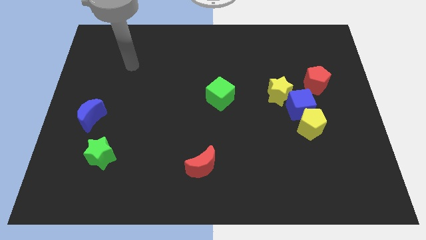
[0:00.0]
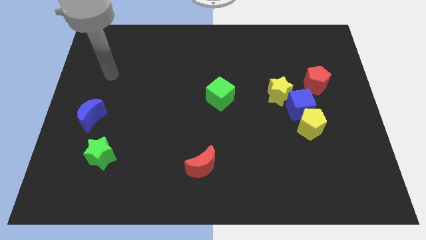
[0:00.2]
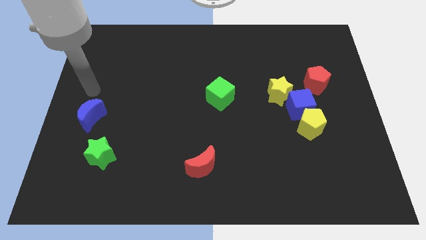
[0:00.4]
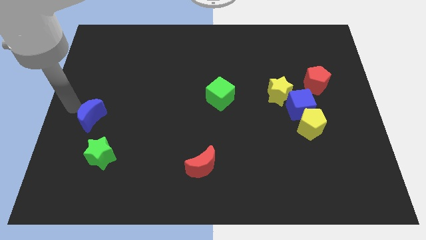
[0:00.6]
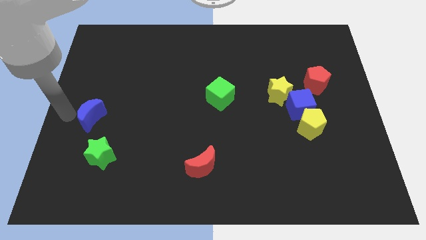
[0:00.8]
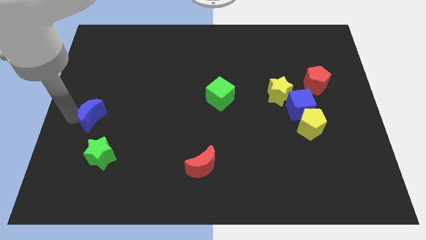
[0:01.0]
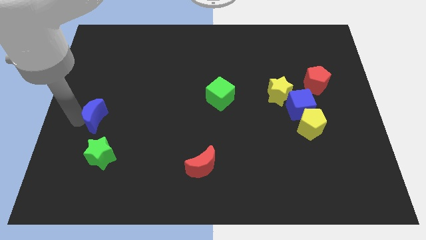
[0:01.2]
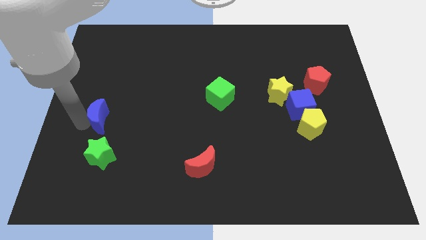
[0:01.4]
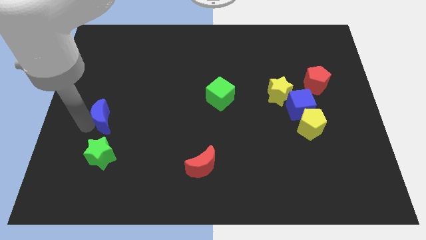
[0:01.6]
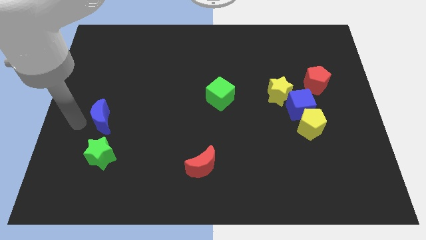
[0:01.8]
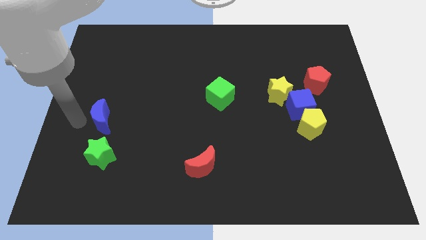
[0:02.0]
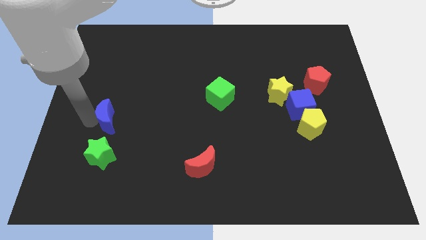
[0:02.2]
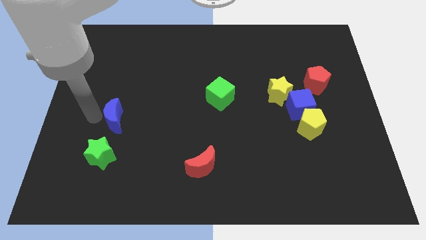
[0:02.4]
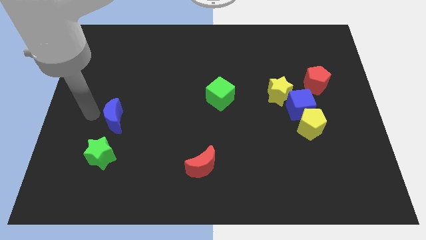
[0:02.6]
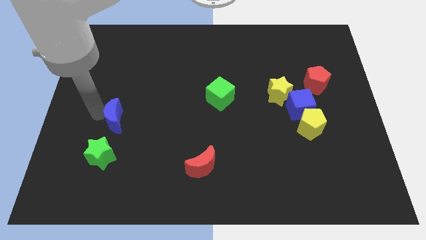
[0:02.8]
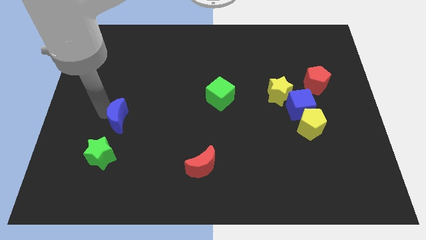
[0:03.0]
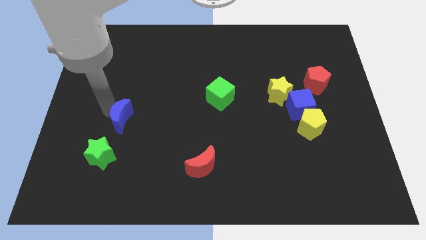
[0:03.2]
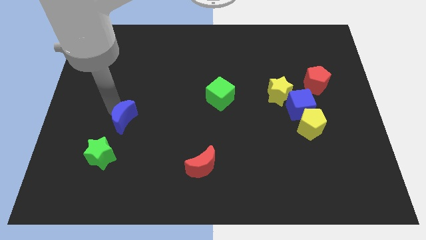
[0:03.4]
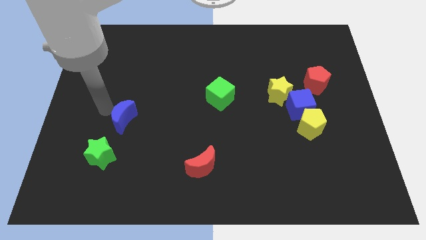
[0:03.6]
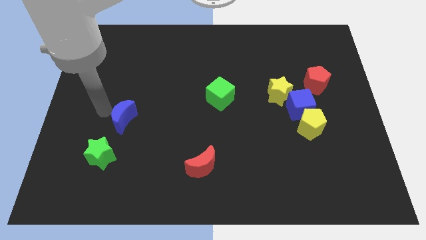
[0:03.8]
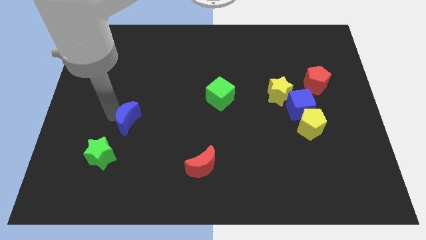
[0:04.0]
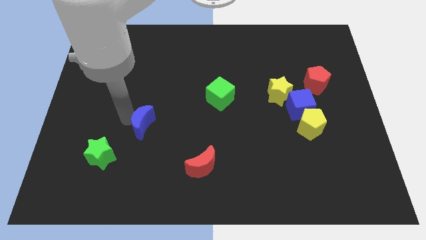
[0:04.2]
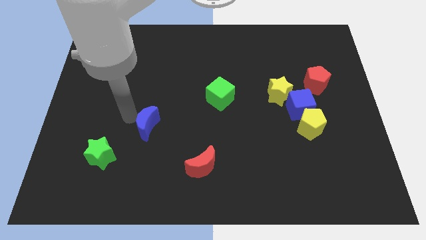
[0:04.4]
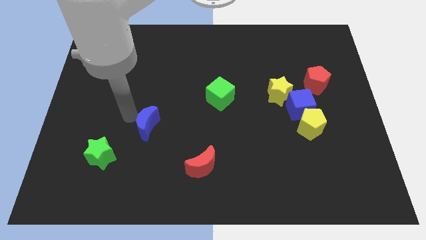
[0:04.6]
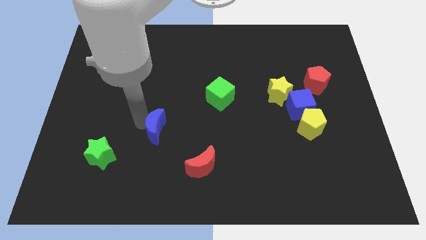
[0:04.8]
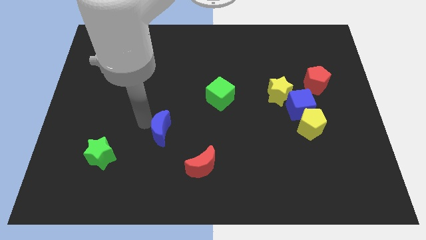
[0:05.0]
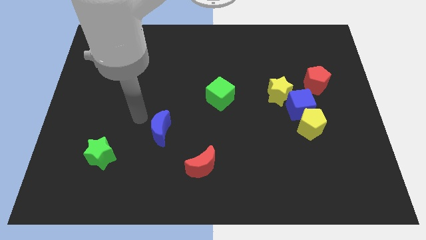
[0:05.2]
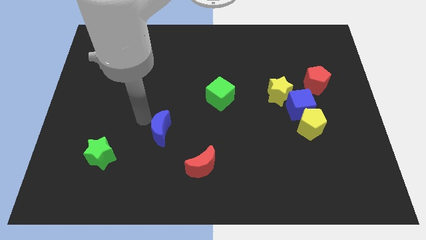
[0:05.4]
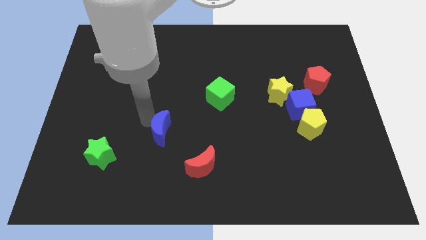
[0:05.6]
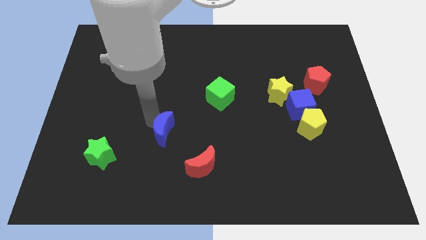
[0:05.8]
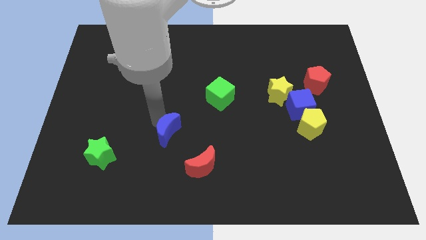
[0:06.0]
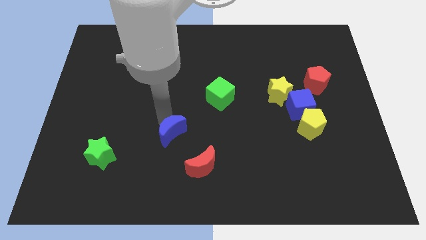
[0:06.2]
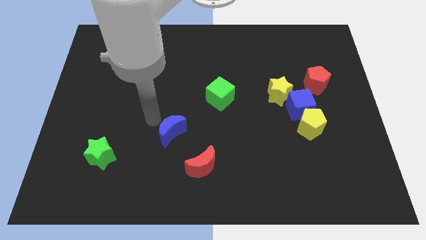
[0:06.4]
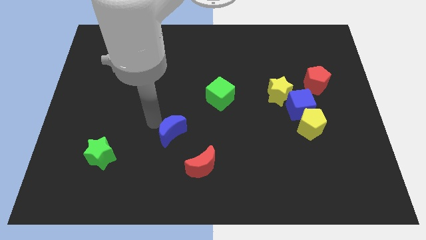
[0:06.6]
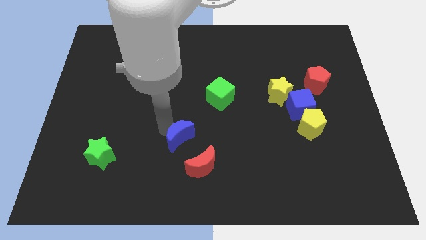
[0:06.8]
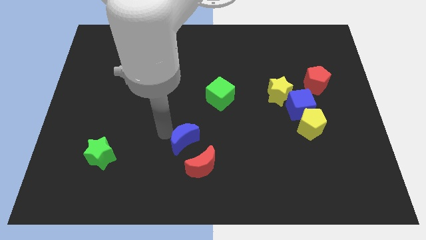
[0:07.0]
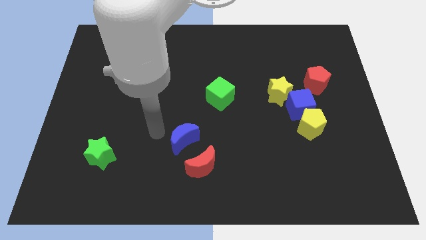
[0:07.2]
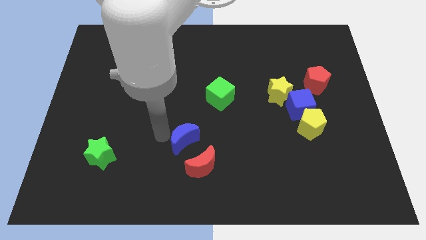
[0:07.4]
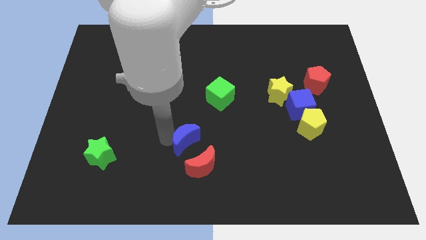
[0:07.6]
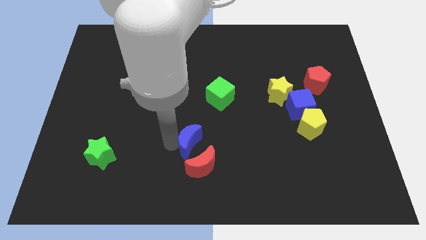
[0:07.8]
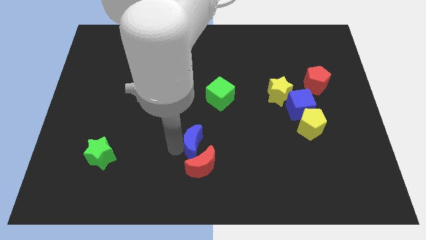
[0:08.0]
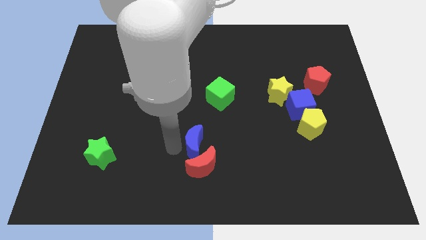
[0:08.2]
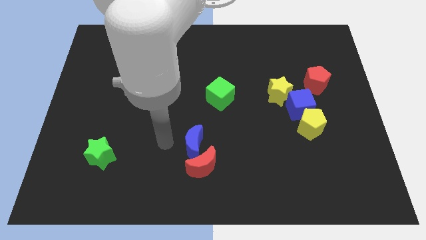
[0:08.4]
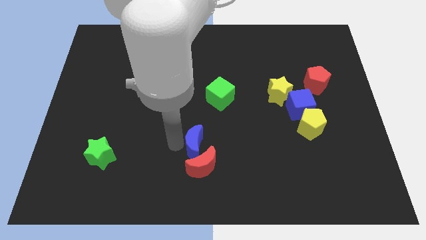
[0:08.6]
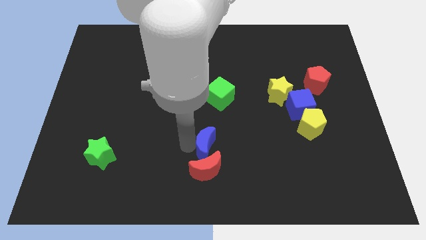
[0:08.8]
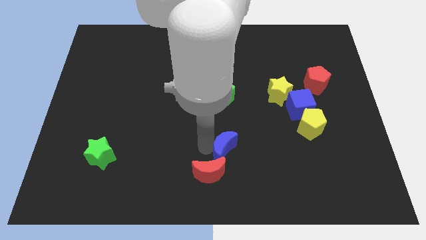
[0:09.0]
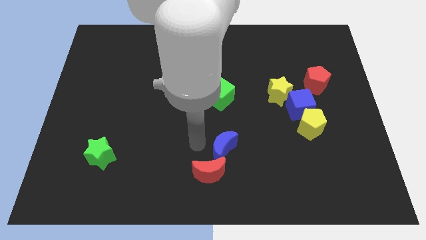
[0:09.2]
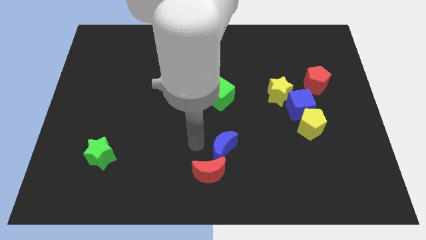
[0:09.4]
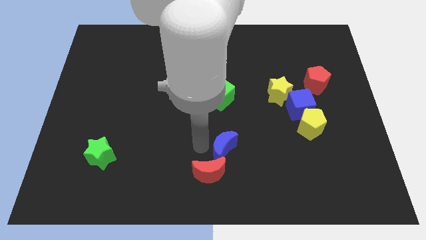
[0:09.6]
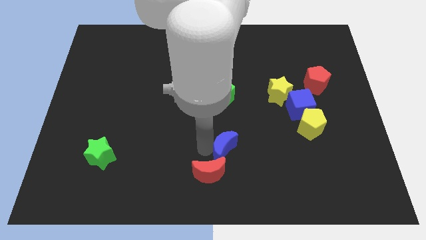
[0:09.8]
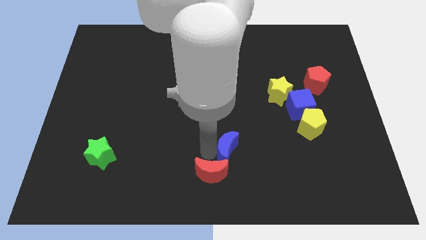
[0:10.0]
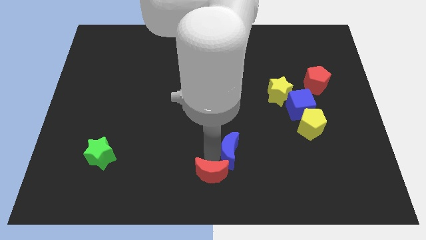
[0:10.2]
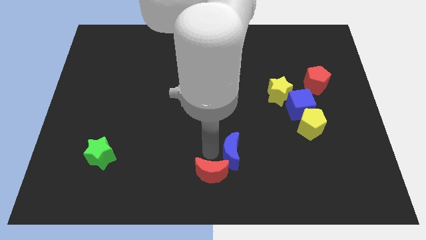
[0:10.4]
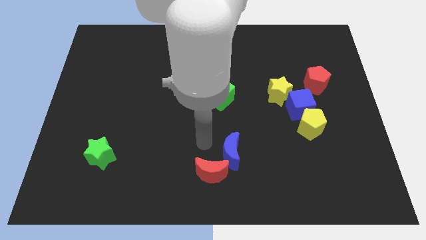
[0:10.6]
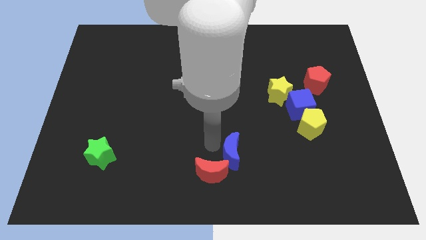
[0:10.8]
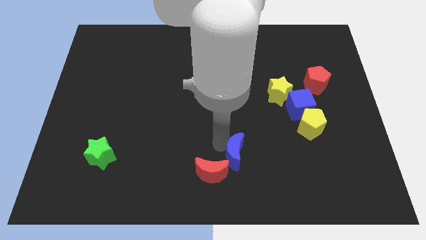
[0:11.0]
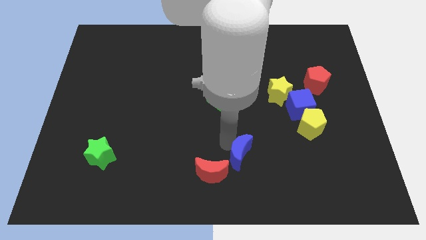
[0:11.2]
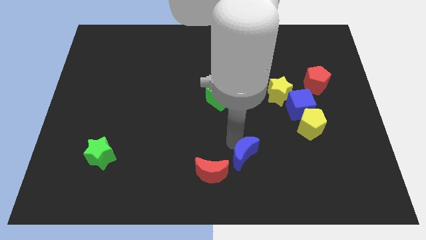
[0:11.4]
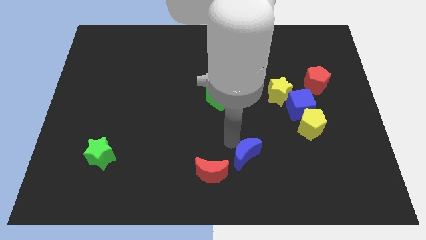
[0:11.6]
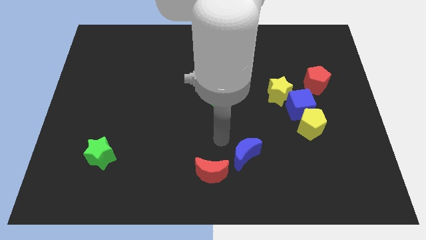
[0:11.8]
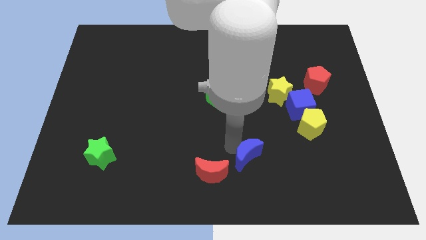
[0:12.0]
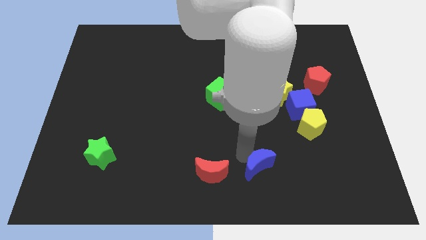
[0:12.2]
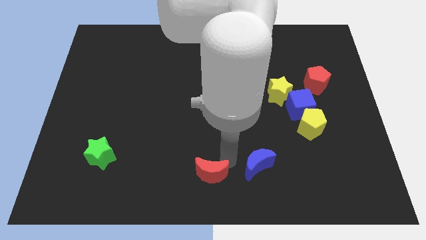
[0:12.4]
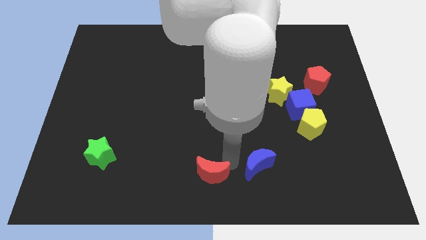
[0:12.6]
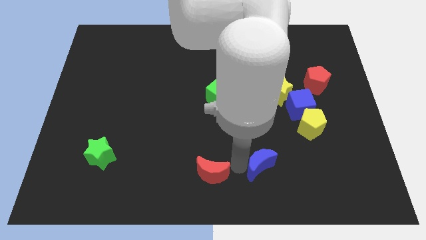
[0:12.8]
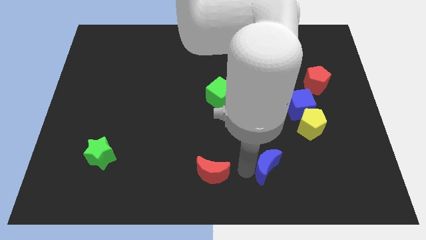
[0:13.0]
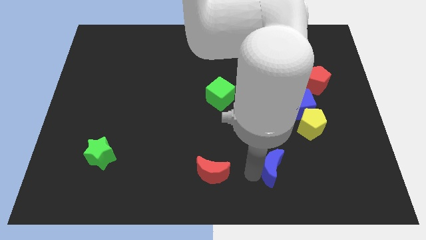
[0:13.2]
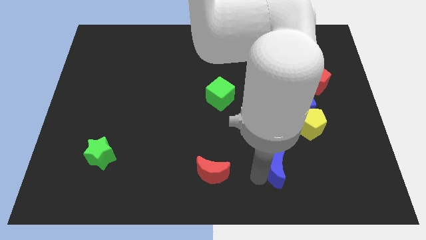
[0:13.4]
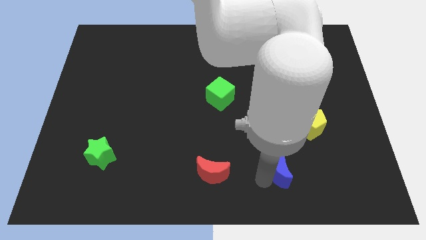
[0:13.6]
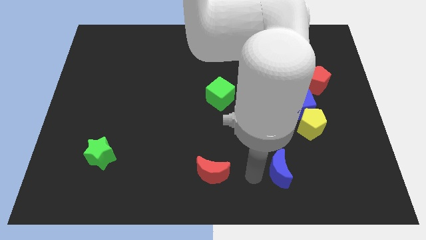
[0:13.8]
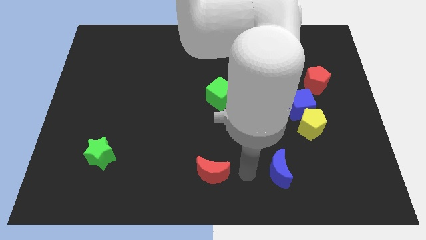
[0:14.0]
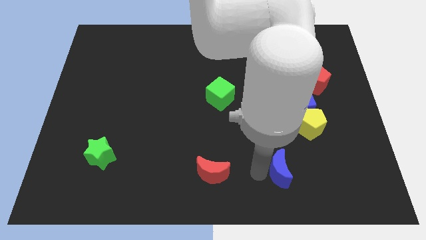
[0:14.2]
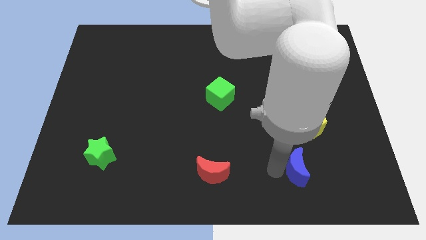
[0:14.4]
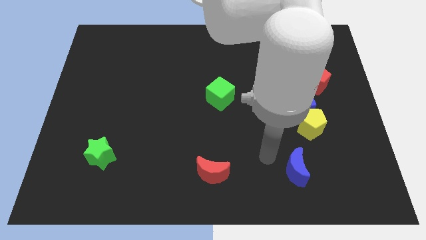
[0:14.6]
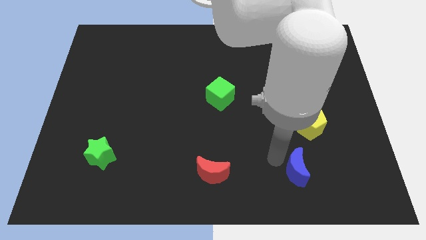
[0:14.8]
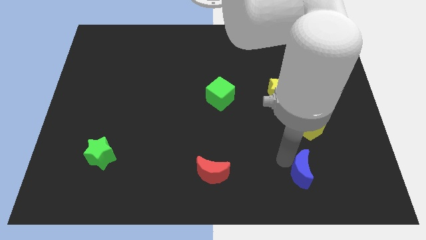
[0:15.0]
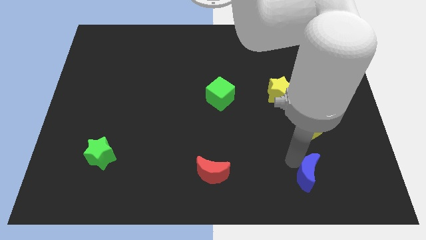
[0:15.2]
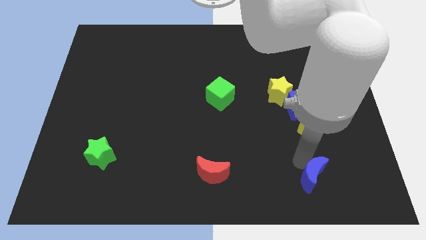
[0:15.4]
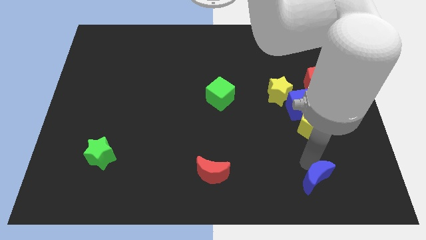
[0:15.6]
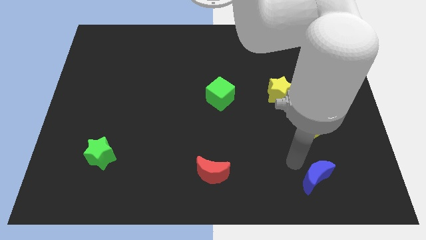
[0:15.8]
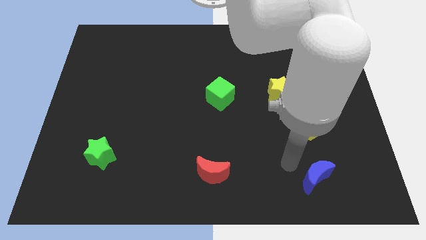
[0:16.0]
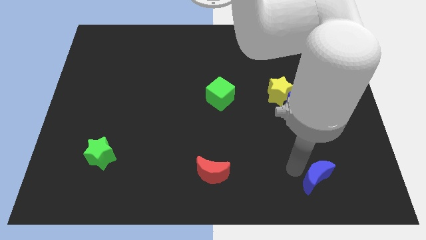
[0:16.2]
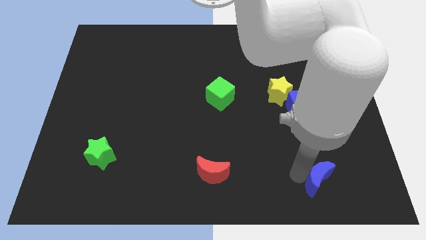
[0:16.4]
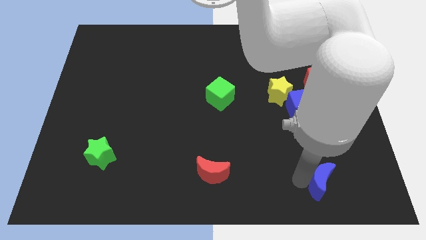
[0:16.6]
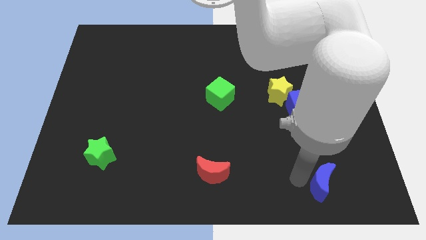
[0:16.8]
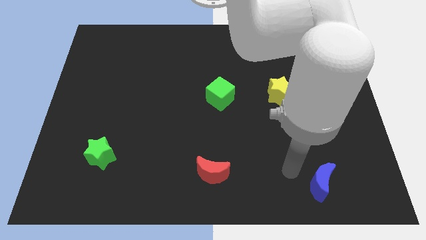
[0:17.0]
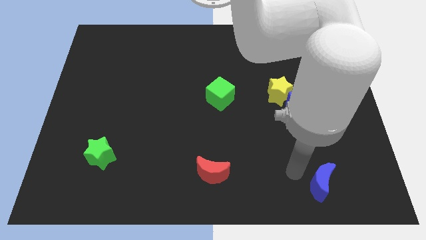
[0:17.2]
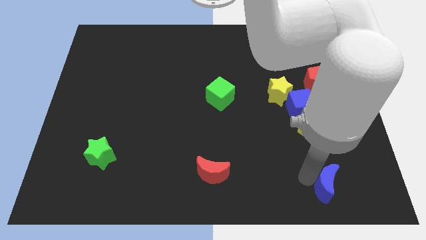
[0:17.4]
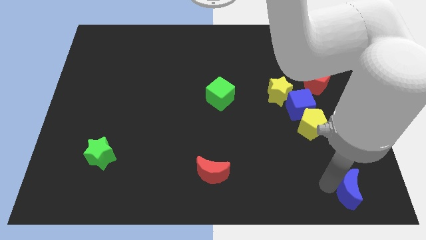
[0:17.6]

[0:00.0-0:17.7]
slide the blue moon to the bottom right of the board
